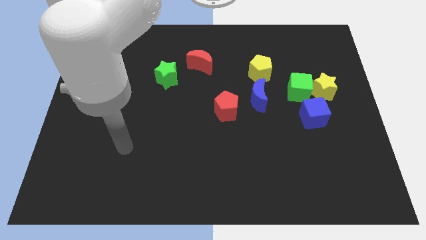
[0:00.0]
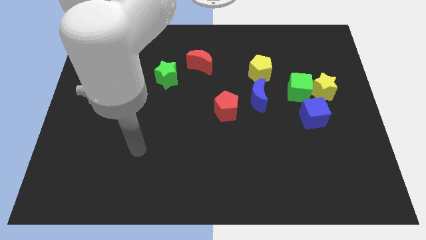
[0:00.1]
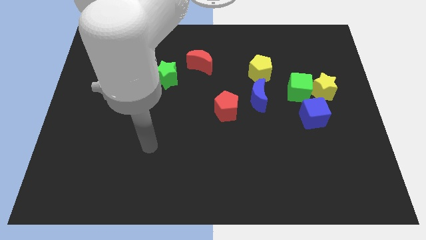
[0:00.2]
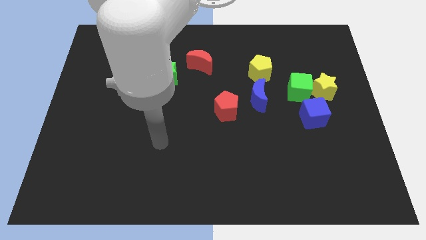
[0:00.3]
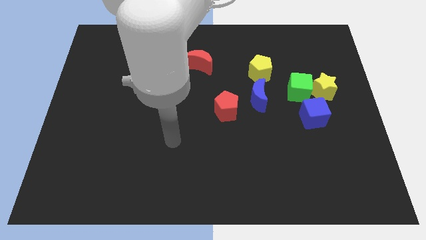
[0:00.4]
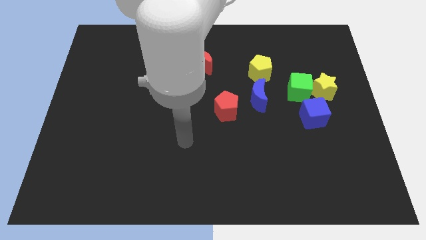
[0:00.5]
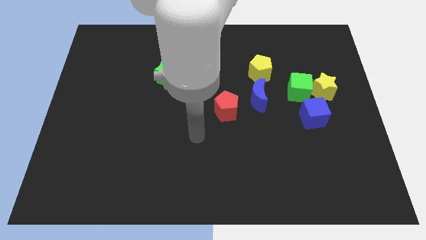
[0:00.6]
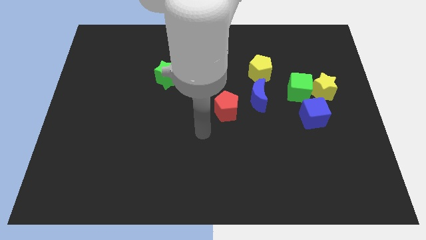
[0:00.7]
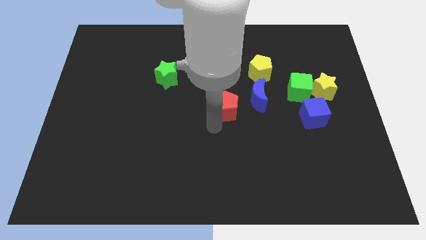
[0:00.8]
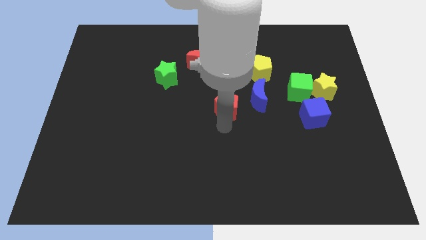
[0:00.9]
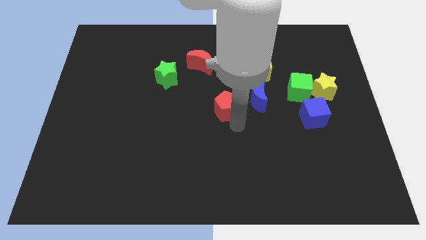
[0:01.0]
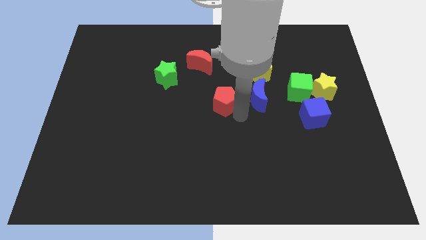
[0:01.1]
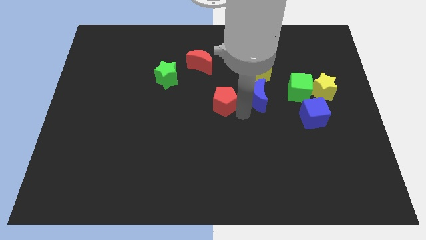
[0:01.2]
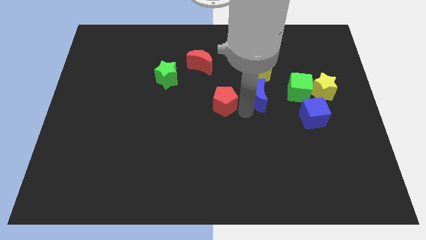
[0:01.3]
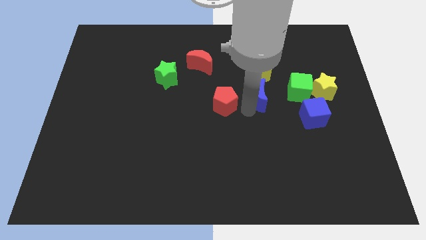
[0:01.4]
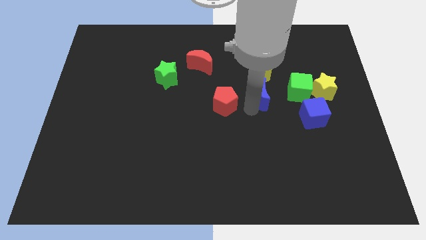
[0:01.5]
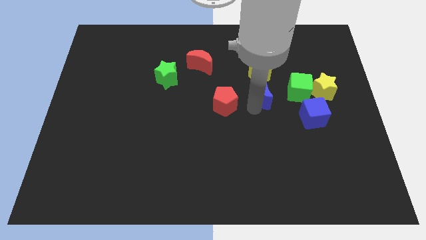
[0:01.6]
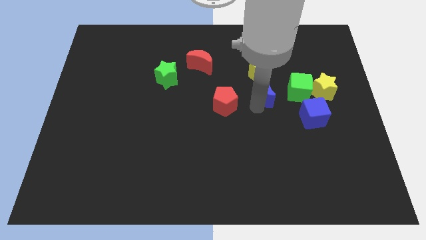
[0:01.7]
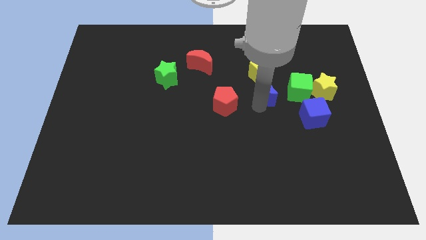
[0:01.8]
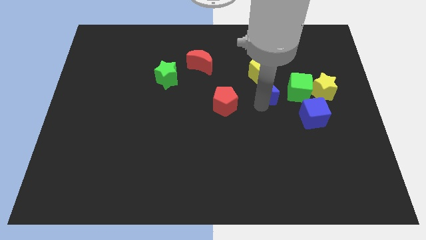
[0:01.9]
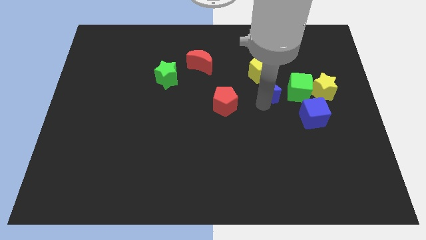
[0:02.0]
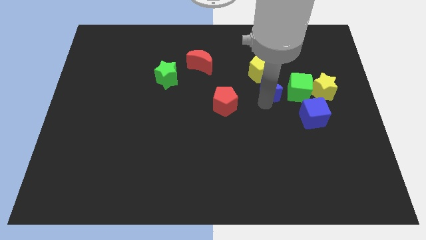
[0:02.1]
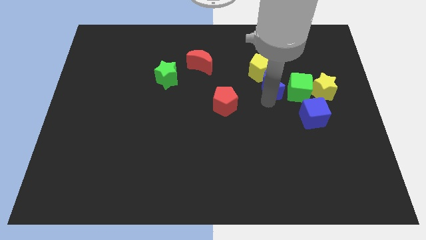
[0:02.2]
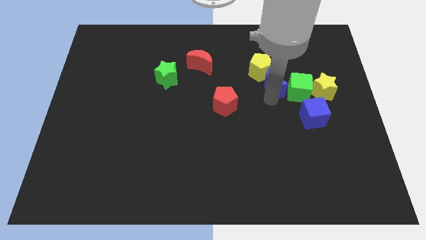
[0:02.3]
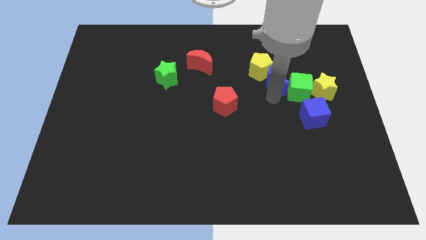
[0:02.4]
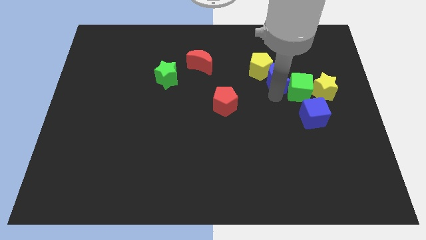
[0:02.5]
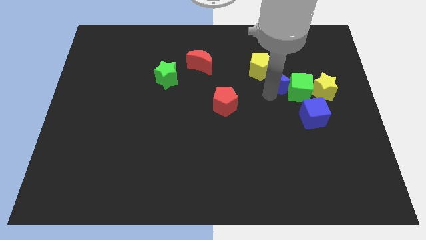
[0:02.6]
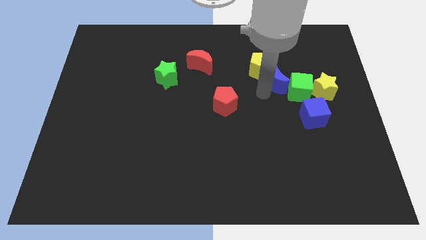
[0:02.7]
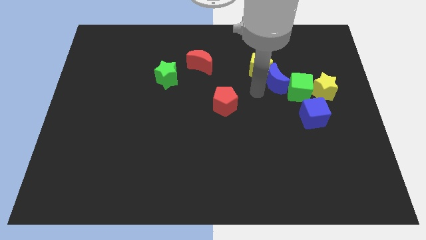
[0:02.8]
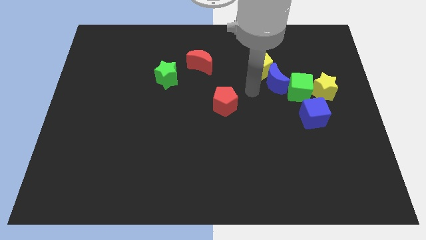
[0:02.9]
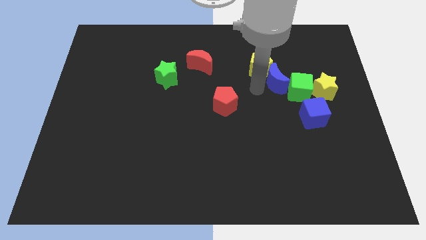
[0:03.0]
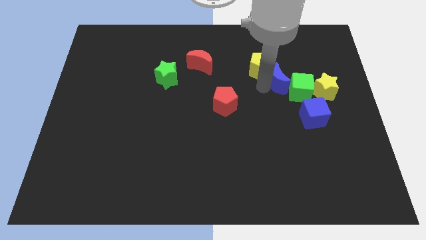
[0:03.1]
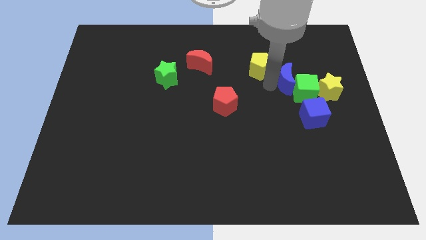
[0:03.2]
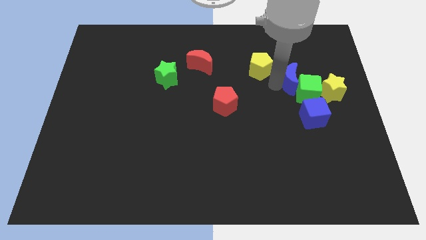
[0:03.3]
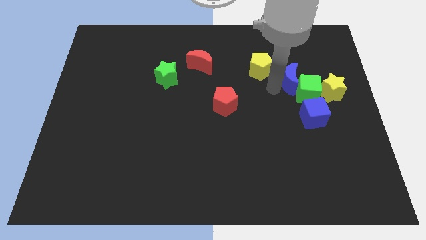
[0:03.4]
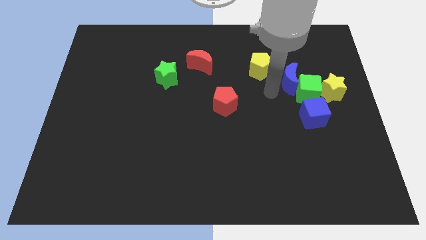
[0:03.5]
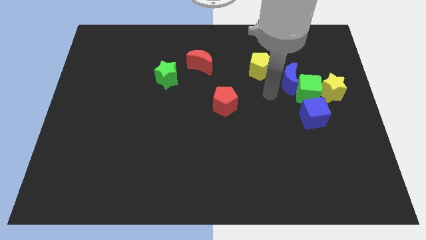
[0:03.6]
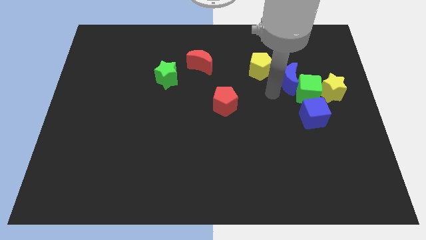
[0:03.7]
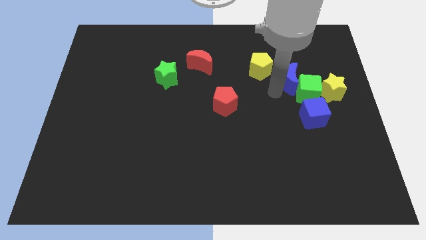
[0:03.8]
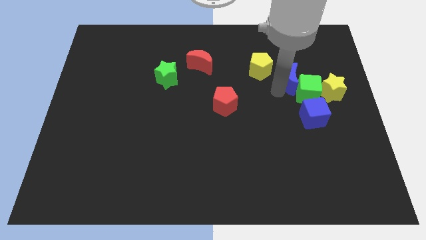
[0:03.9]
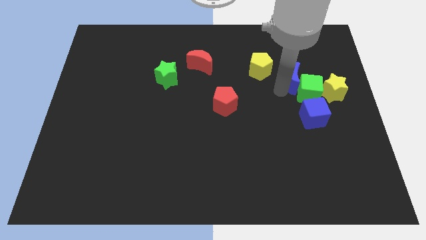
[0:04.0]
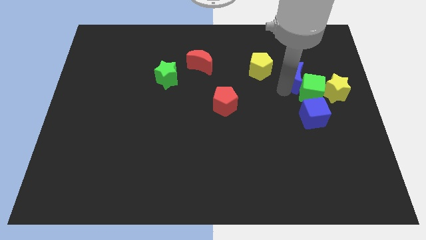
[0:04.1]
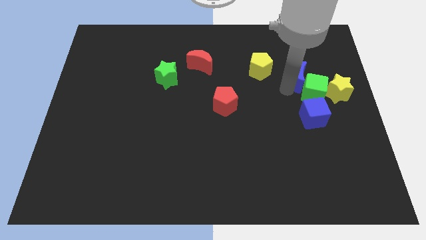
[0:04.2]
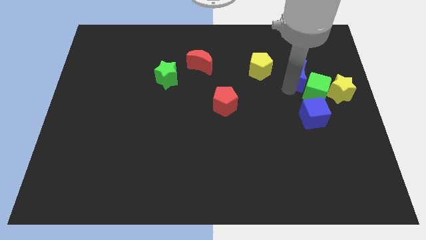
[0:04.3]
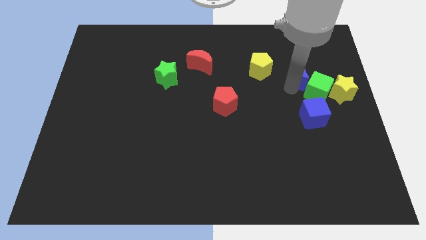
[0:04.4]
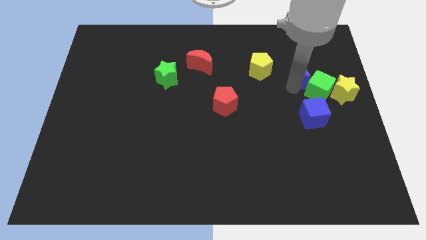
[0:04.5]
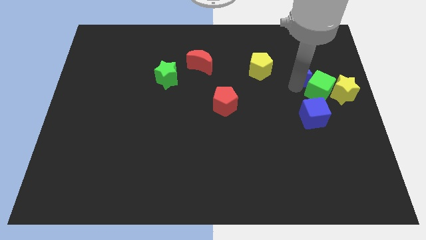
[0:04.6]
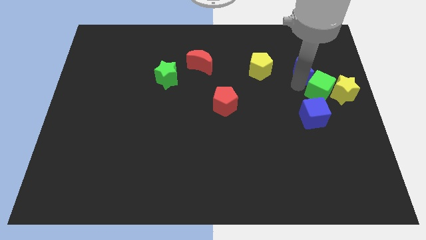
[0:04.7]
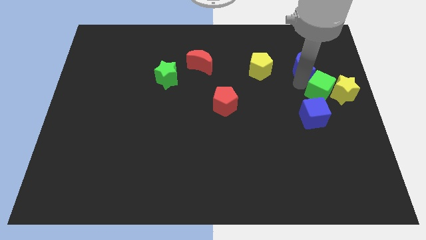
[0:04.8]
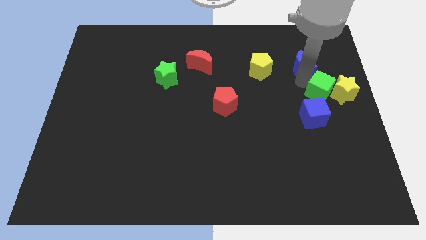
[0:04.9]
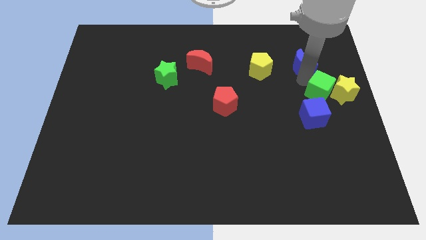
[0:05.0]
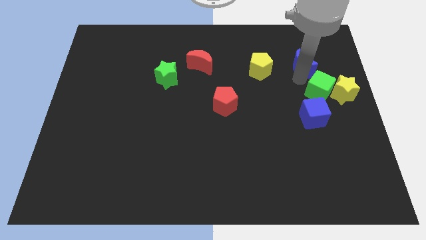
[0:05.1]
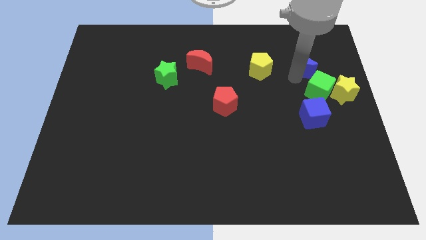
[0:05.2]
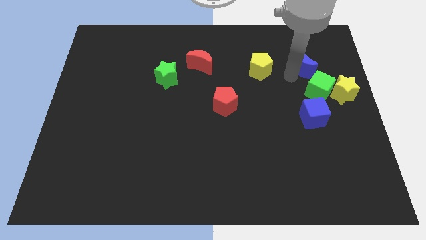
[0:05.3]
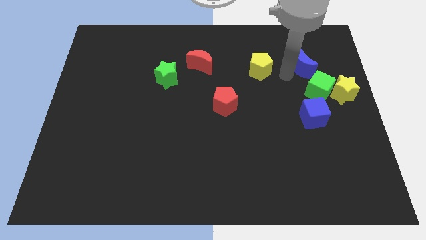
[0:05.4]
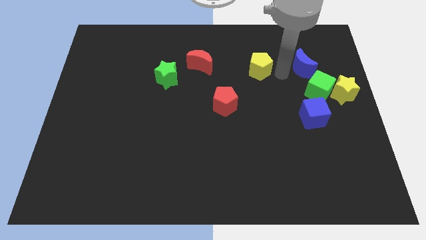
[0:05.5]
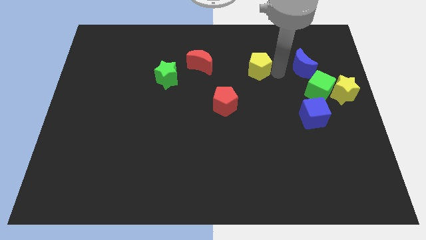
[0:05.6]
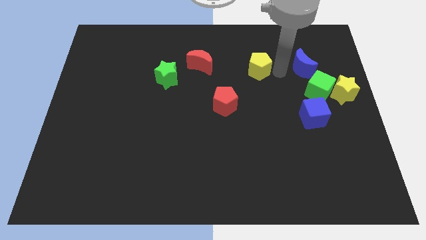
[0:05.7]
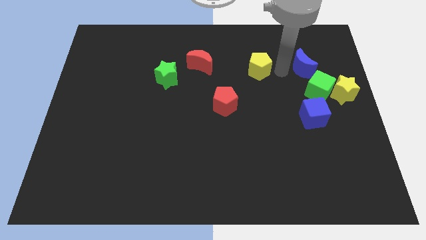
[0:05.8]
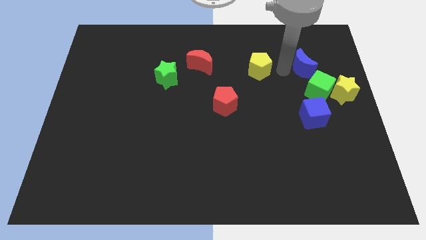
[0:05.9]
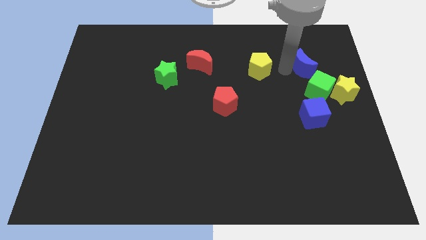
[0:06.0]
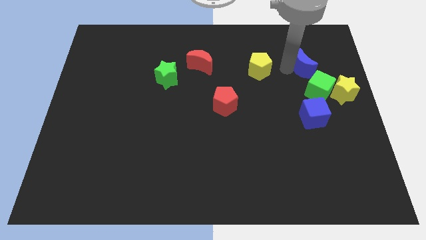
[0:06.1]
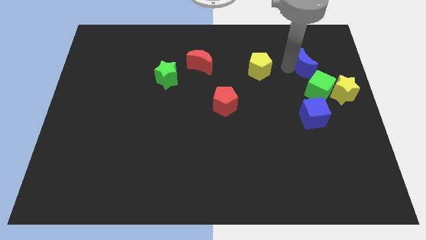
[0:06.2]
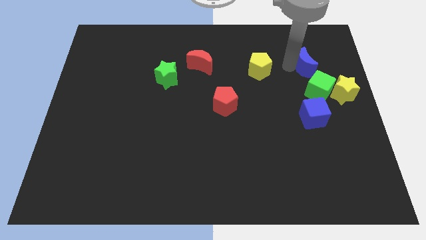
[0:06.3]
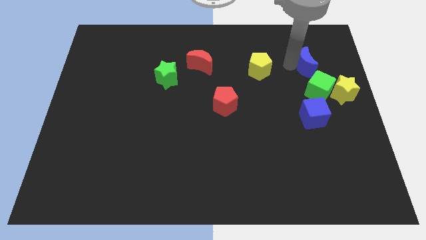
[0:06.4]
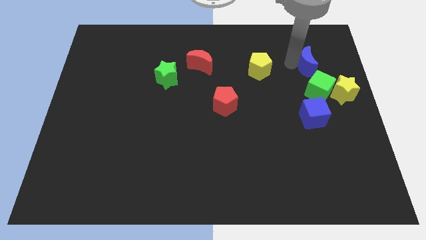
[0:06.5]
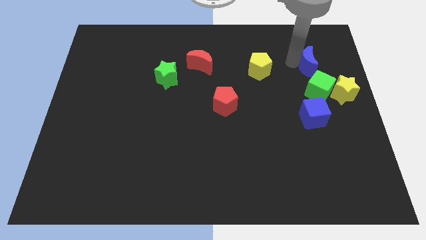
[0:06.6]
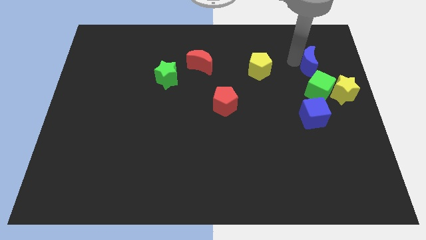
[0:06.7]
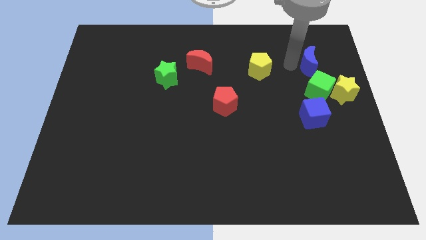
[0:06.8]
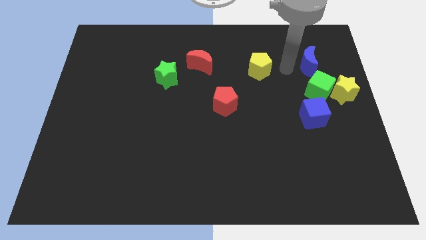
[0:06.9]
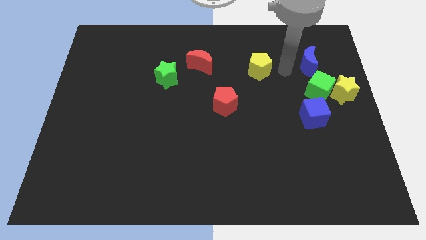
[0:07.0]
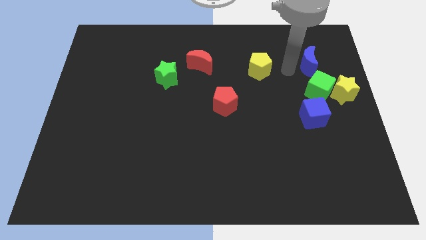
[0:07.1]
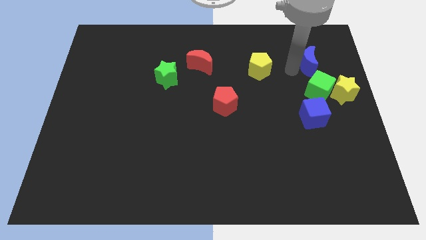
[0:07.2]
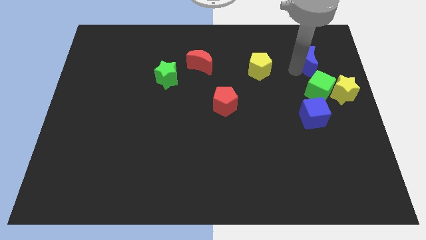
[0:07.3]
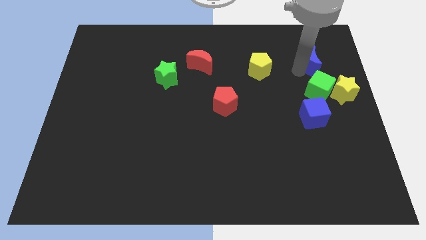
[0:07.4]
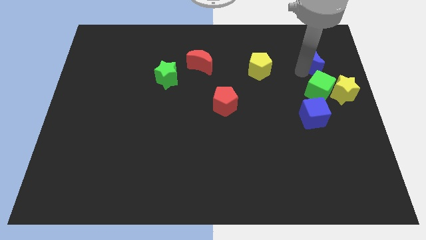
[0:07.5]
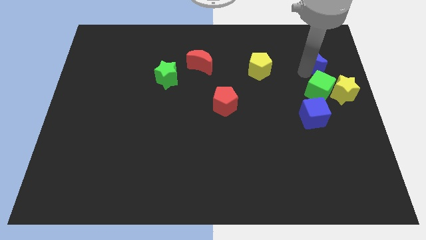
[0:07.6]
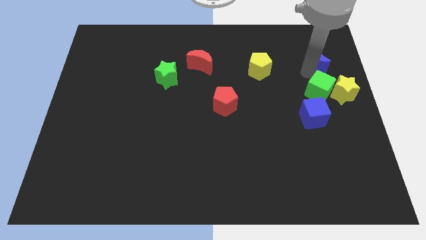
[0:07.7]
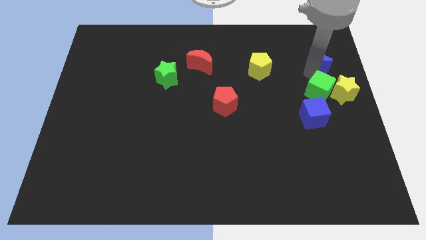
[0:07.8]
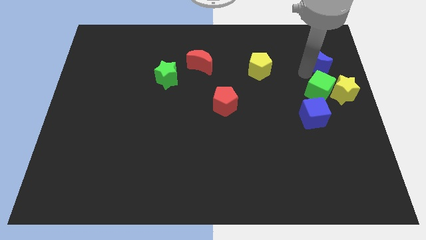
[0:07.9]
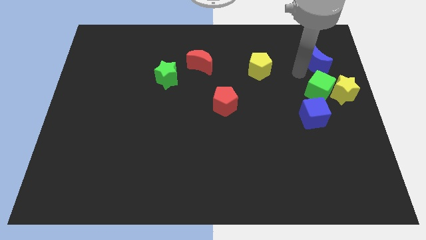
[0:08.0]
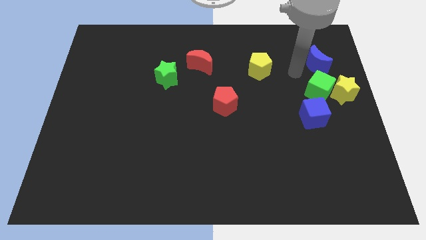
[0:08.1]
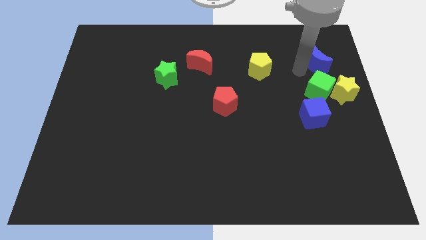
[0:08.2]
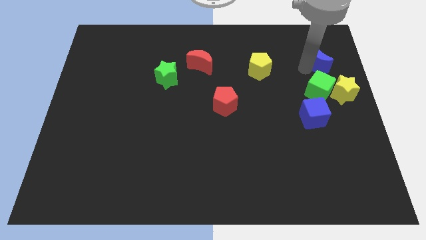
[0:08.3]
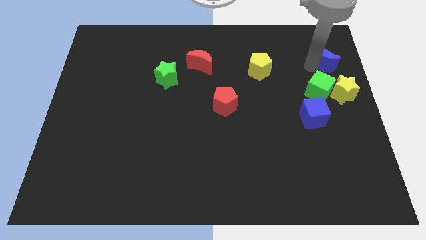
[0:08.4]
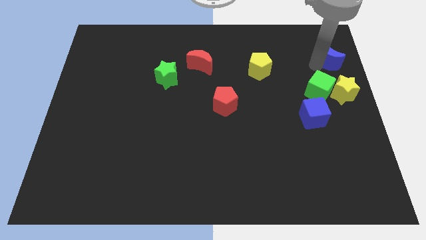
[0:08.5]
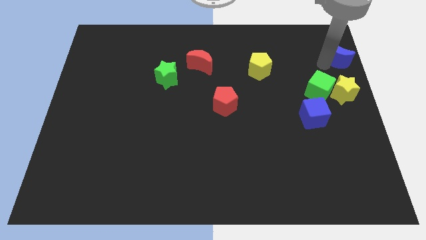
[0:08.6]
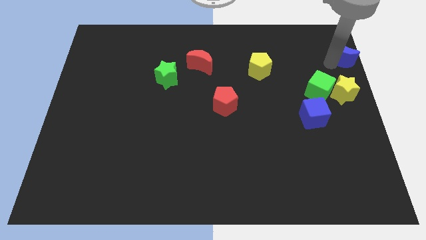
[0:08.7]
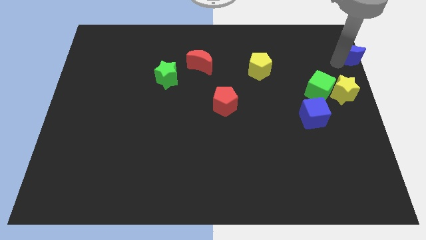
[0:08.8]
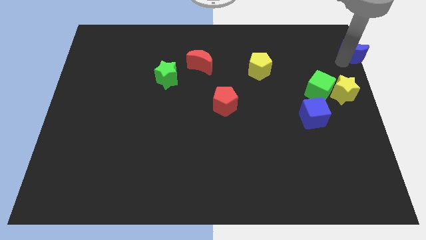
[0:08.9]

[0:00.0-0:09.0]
put the blue moon to the top right corner
